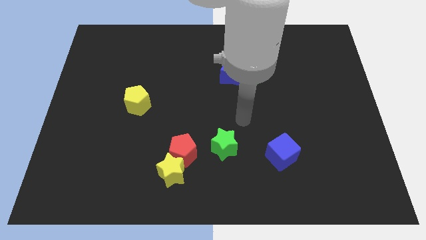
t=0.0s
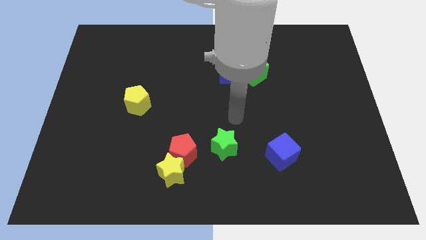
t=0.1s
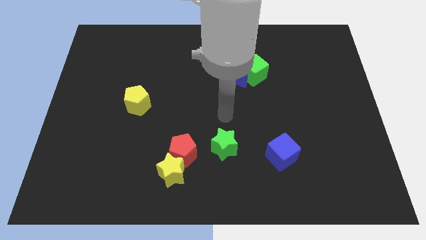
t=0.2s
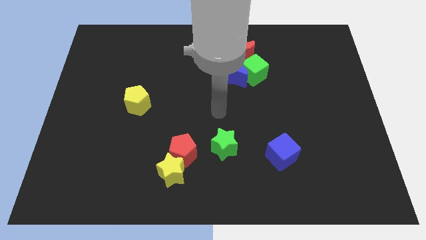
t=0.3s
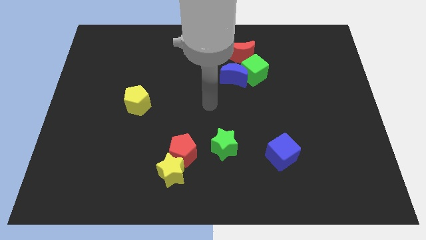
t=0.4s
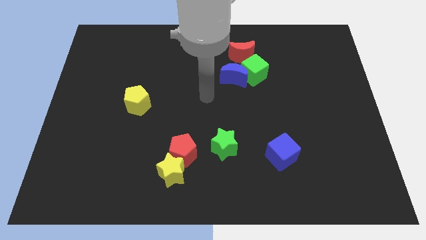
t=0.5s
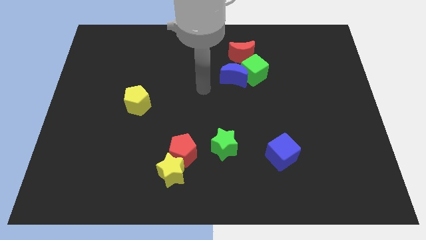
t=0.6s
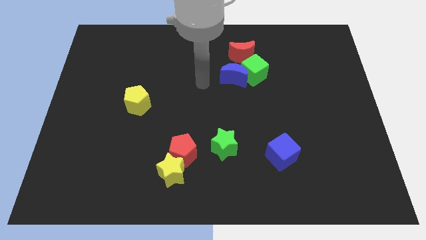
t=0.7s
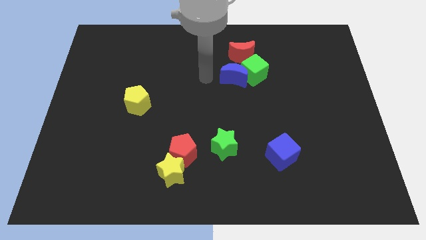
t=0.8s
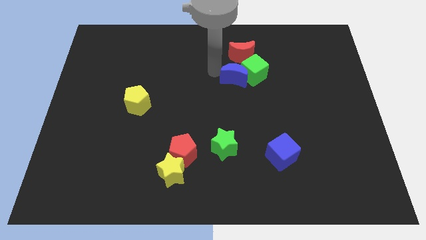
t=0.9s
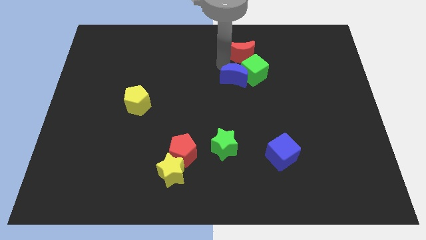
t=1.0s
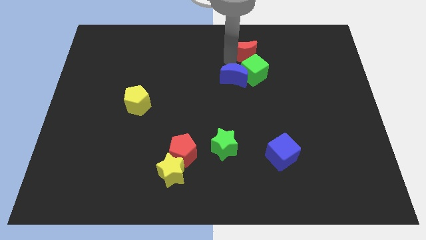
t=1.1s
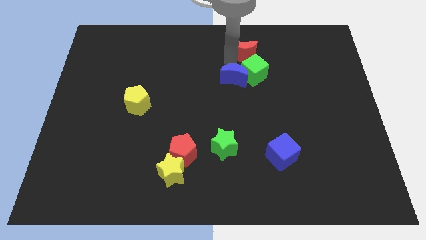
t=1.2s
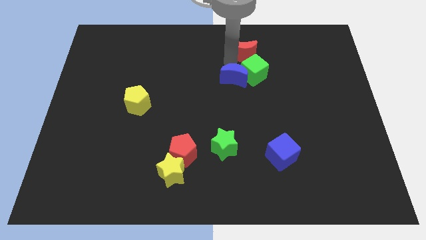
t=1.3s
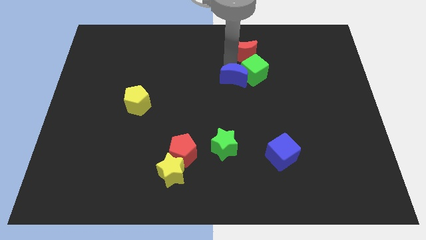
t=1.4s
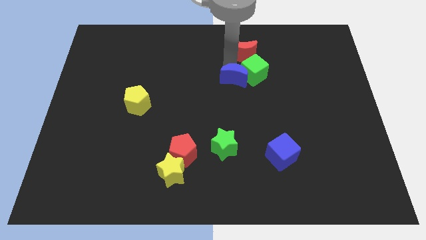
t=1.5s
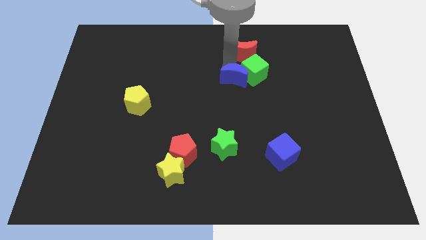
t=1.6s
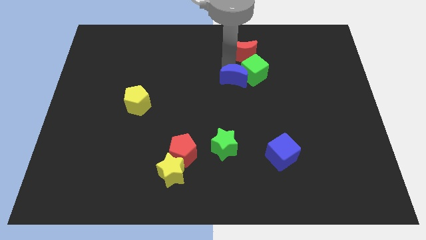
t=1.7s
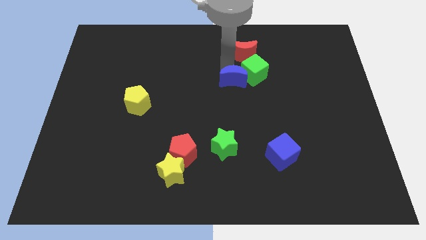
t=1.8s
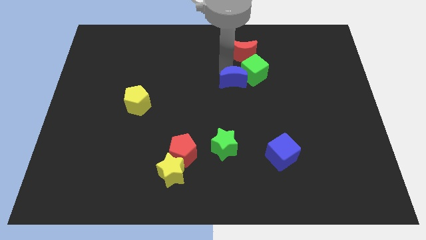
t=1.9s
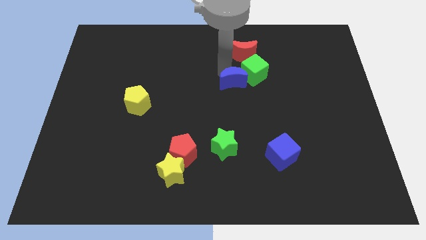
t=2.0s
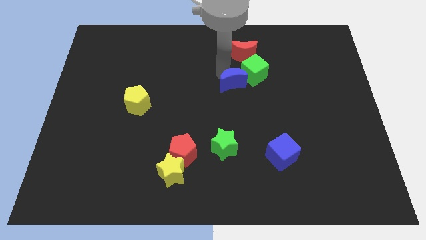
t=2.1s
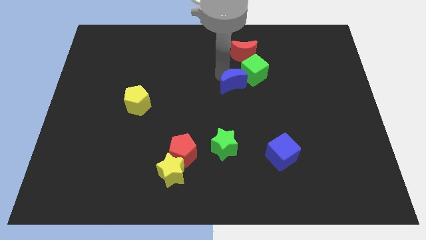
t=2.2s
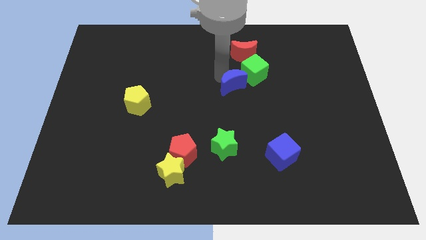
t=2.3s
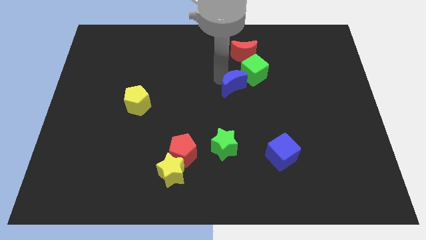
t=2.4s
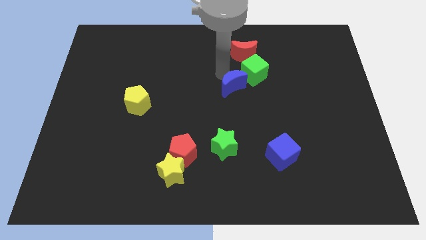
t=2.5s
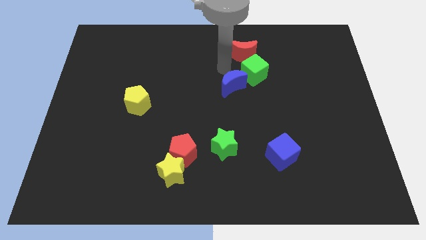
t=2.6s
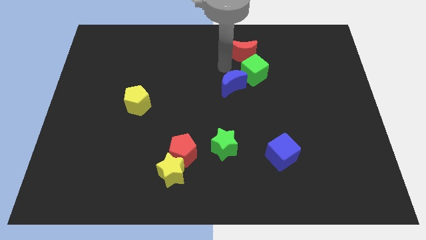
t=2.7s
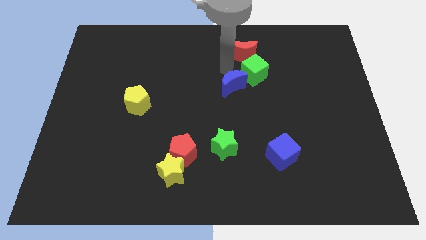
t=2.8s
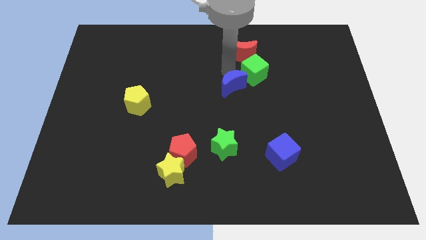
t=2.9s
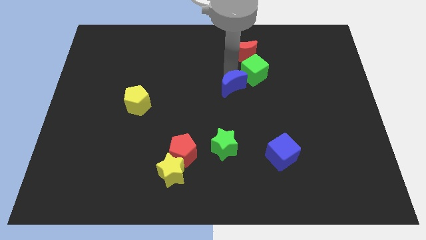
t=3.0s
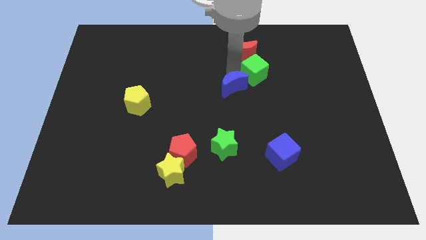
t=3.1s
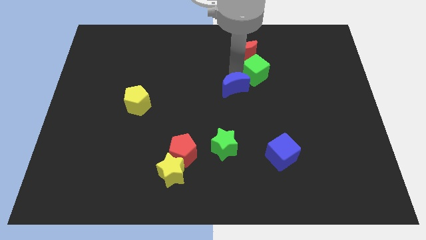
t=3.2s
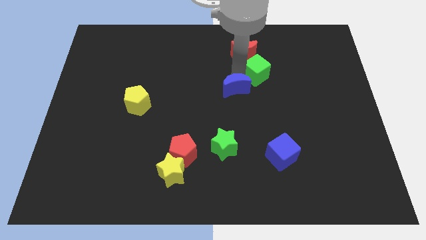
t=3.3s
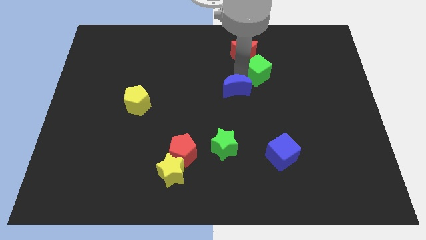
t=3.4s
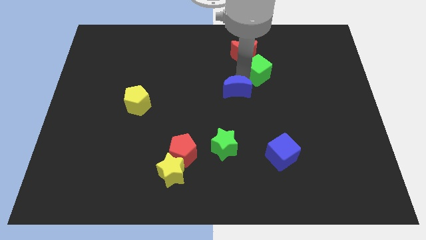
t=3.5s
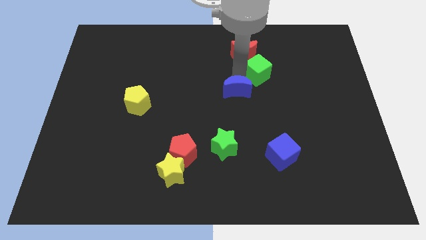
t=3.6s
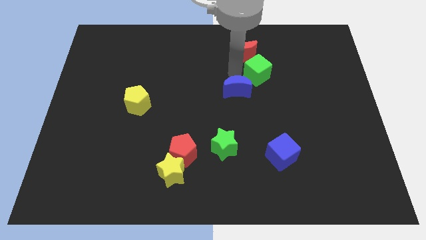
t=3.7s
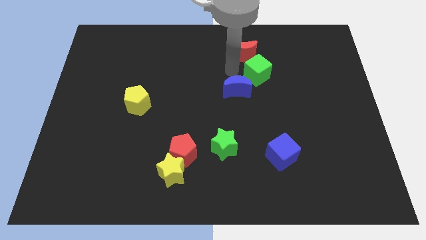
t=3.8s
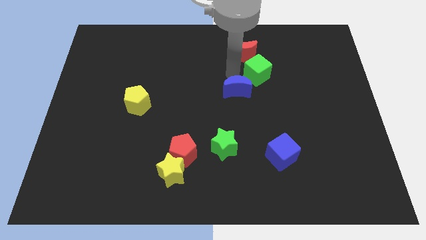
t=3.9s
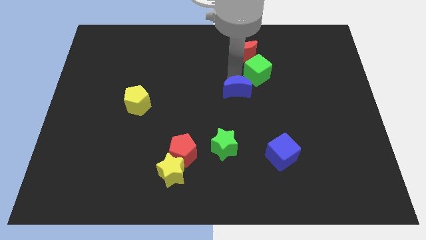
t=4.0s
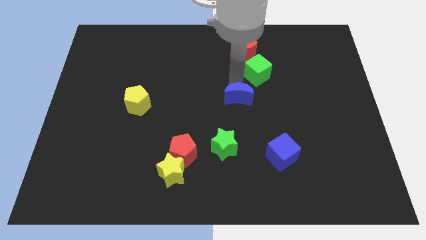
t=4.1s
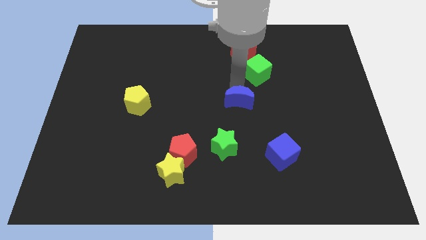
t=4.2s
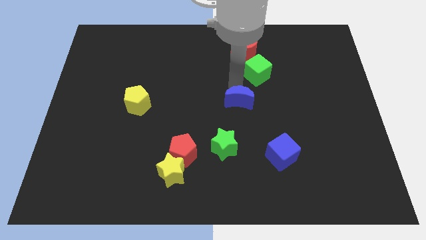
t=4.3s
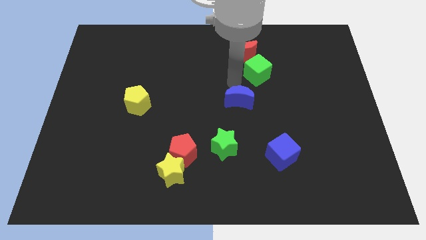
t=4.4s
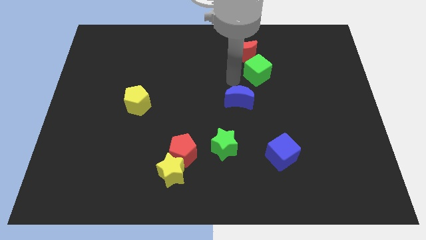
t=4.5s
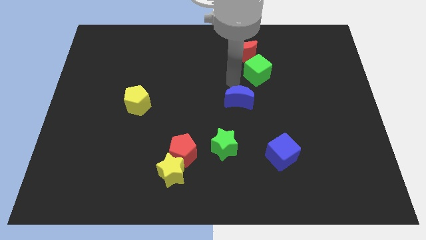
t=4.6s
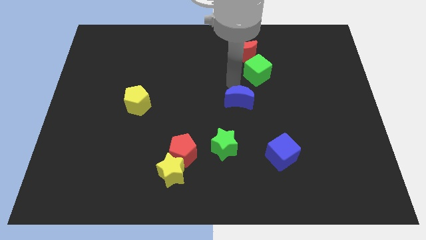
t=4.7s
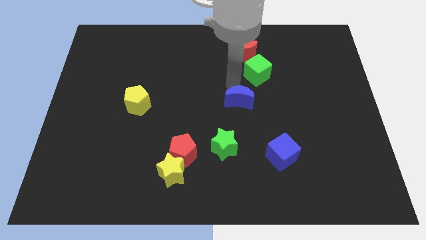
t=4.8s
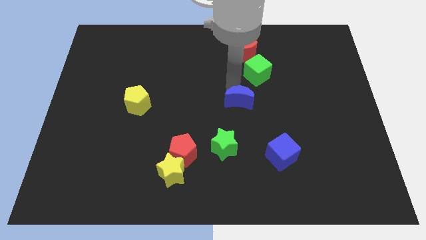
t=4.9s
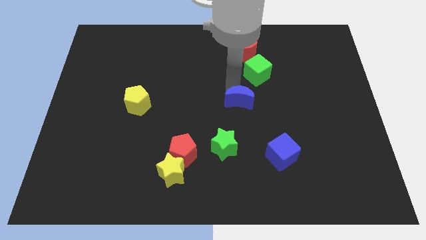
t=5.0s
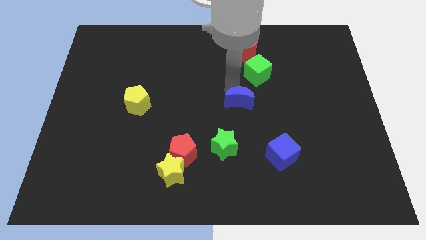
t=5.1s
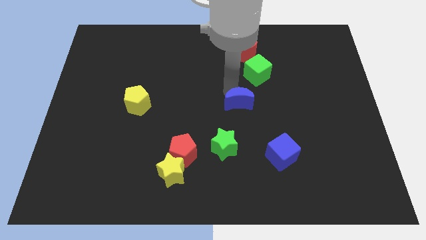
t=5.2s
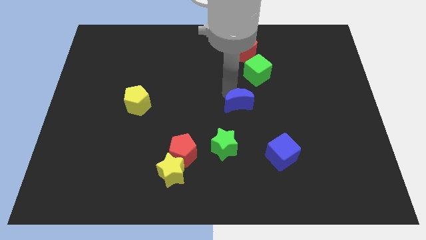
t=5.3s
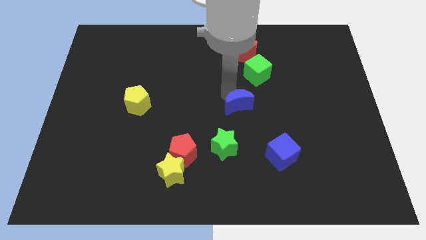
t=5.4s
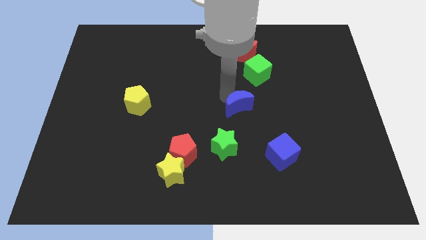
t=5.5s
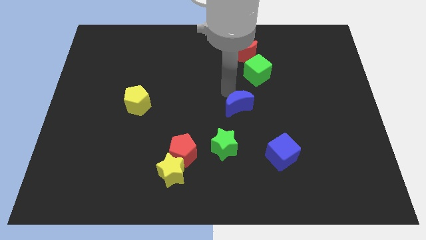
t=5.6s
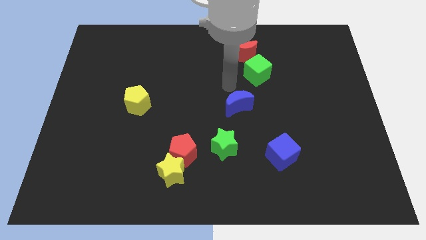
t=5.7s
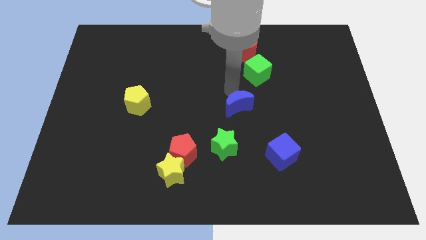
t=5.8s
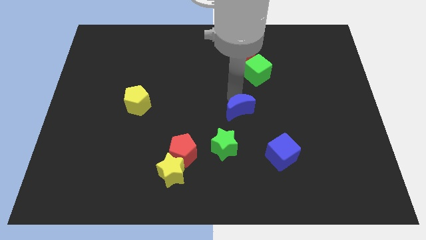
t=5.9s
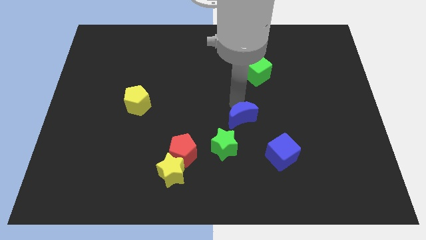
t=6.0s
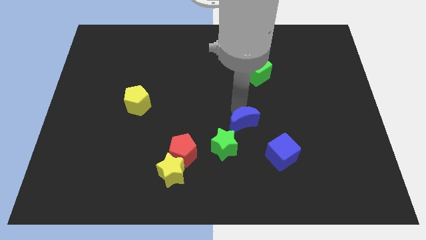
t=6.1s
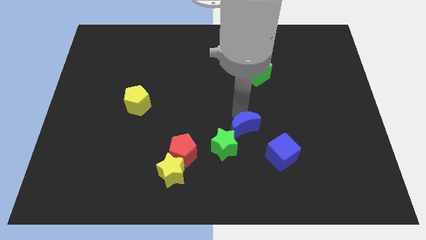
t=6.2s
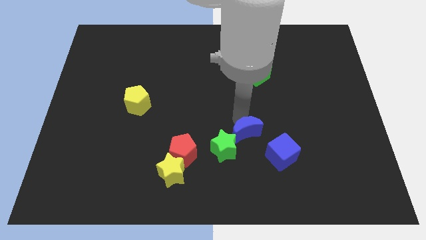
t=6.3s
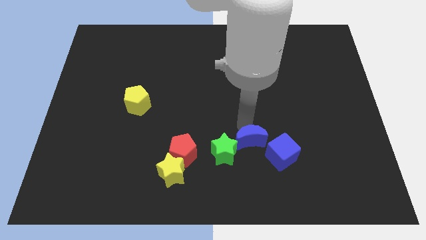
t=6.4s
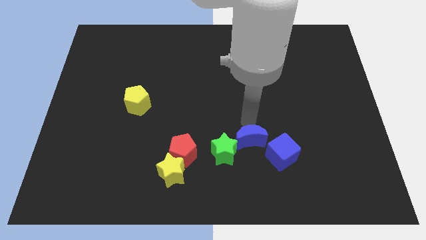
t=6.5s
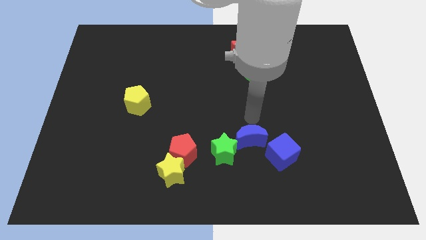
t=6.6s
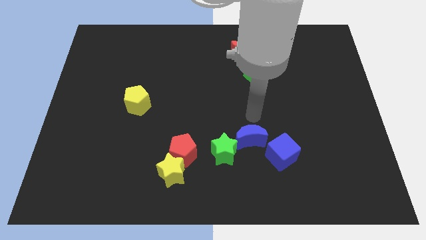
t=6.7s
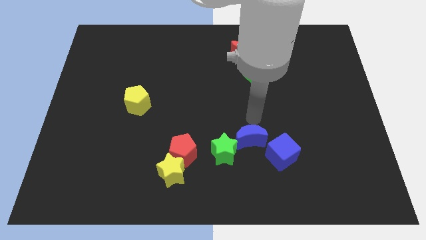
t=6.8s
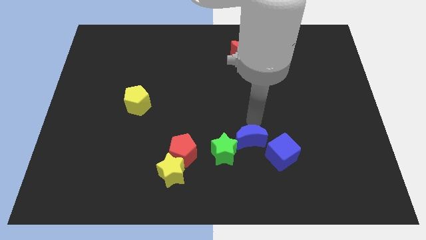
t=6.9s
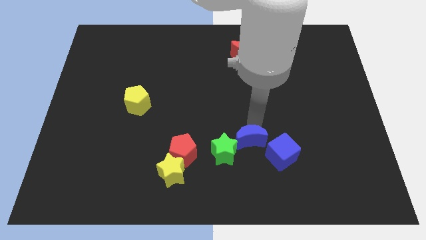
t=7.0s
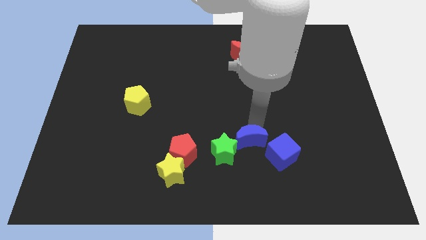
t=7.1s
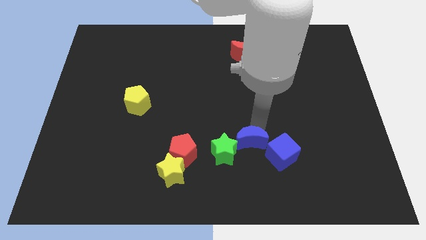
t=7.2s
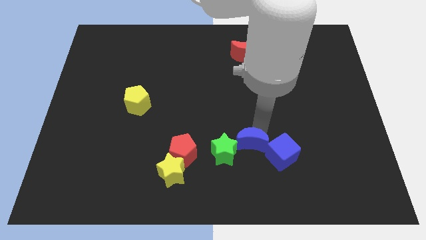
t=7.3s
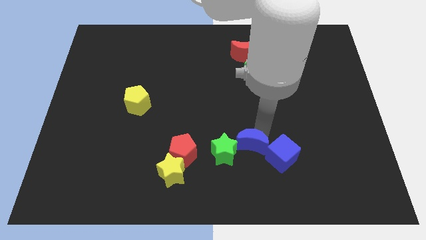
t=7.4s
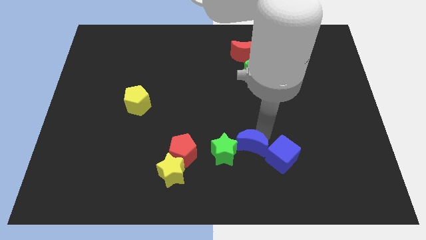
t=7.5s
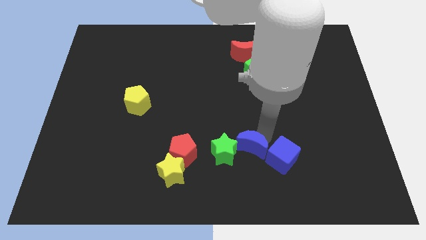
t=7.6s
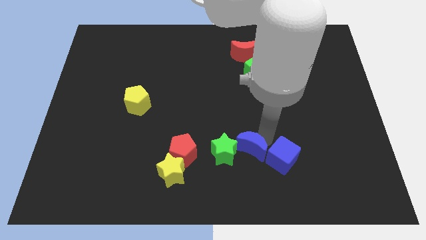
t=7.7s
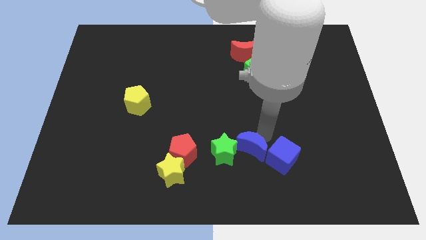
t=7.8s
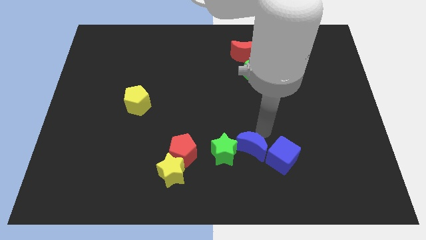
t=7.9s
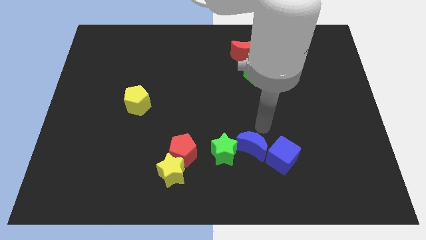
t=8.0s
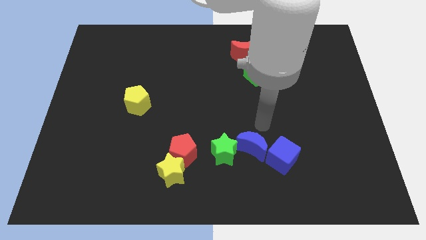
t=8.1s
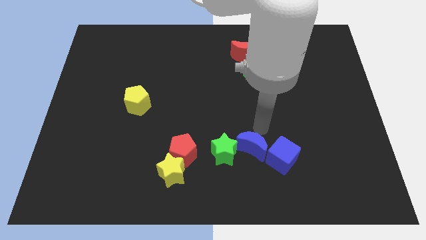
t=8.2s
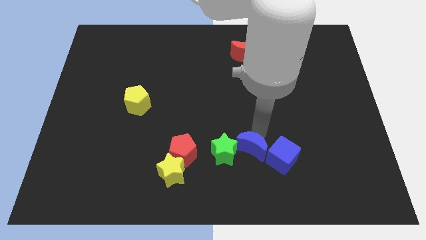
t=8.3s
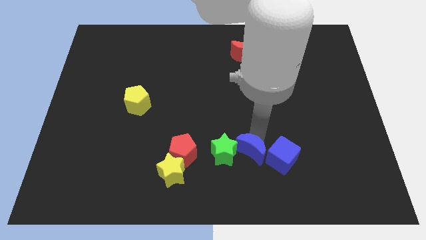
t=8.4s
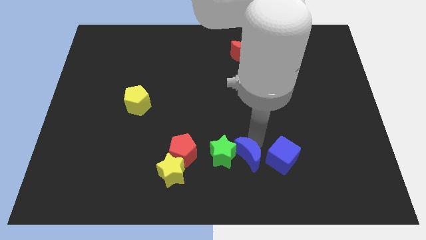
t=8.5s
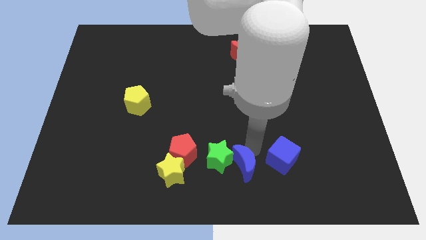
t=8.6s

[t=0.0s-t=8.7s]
put the blue moon to the bottom side
